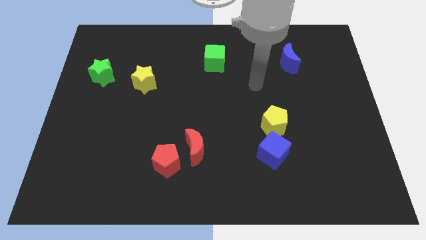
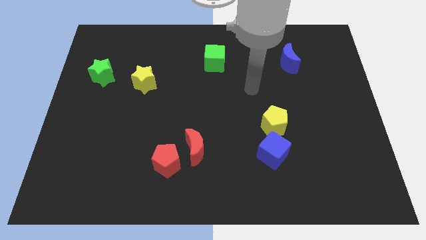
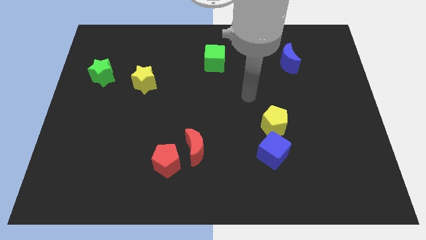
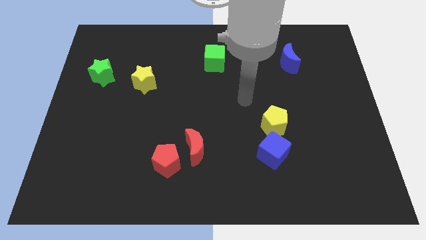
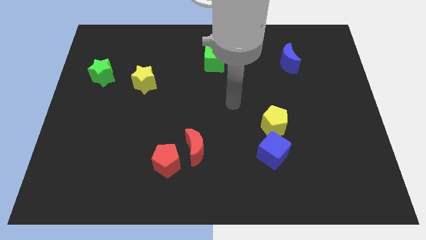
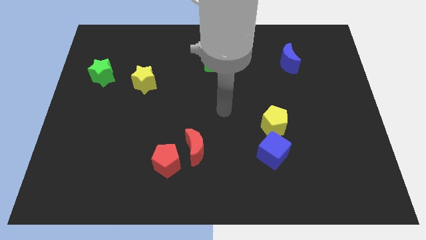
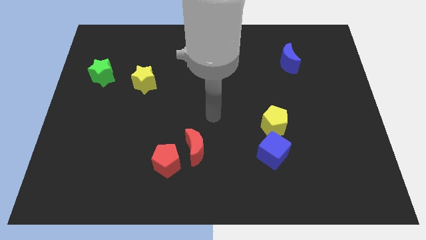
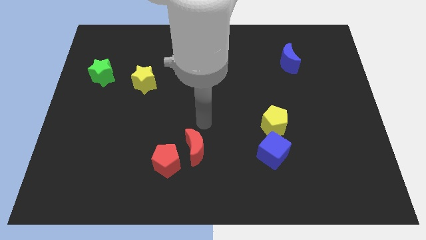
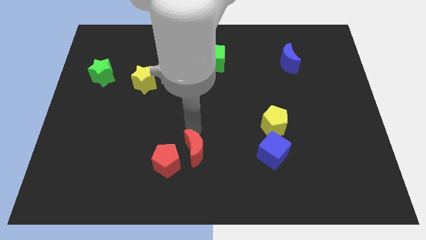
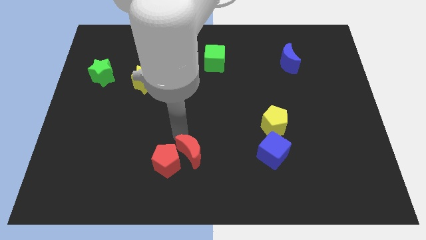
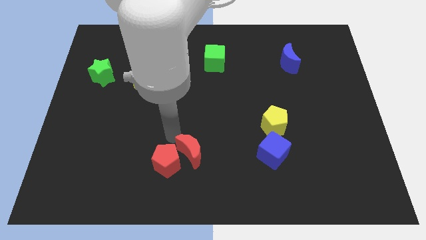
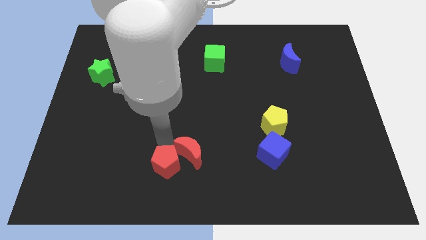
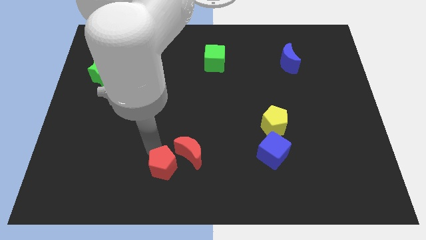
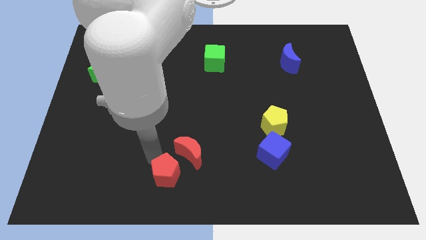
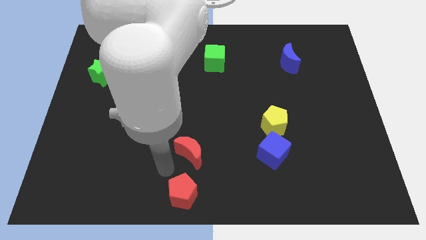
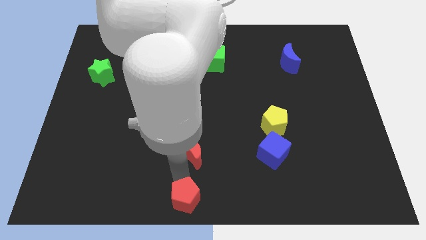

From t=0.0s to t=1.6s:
separate the red moon from the red pentagon

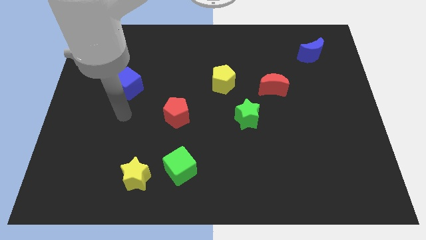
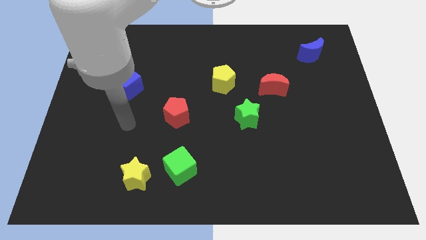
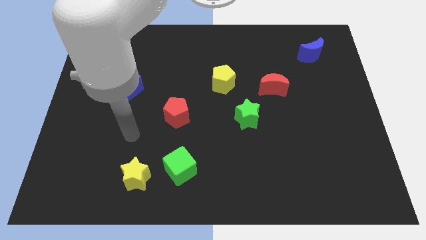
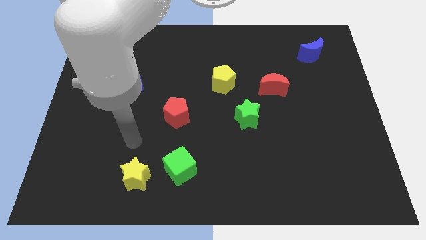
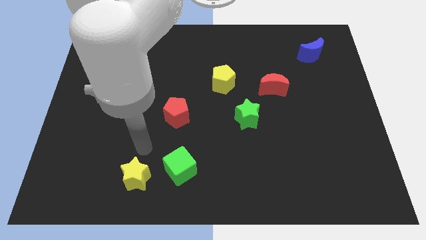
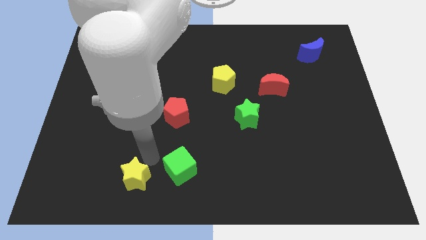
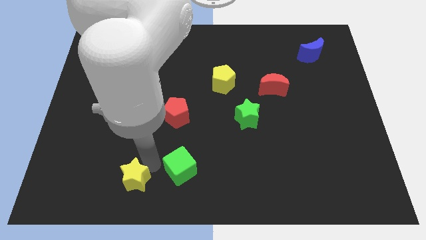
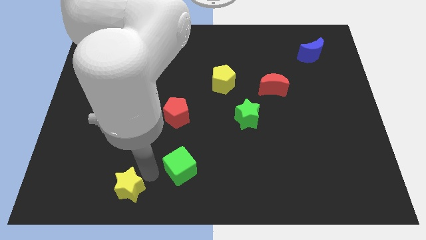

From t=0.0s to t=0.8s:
move the green cube away from the yellow star

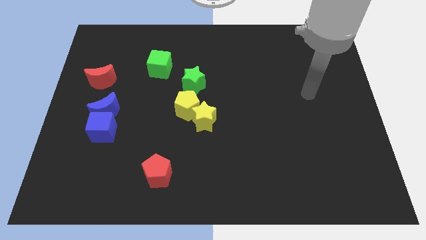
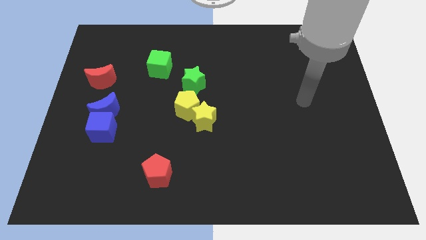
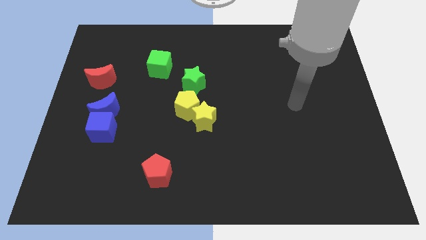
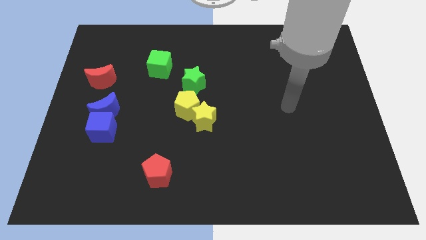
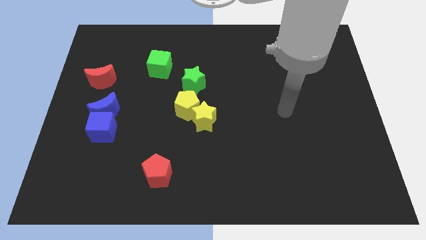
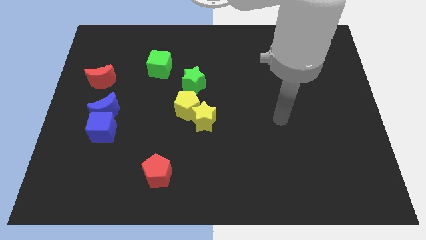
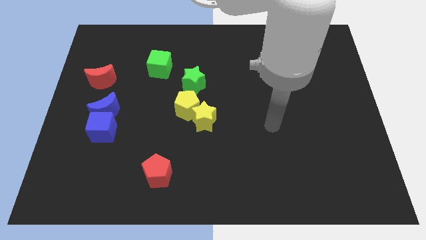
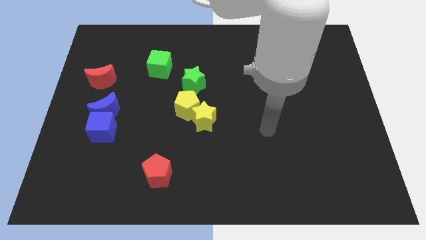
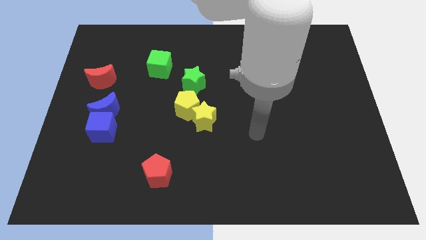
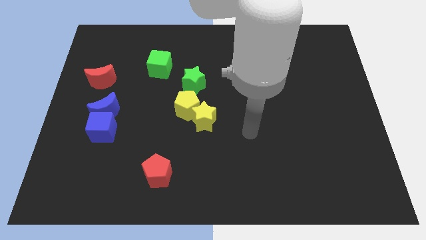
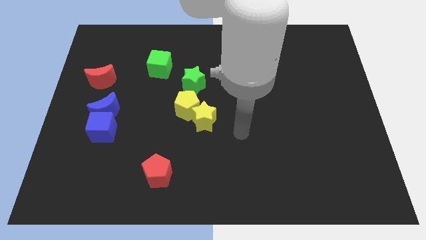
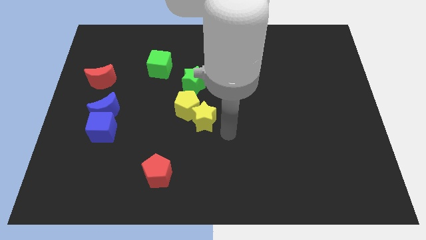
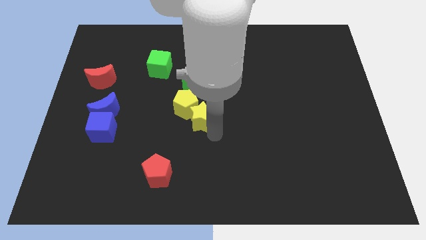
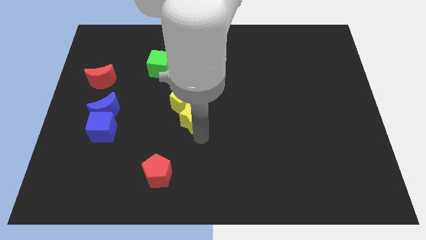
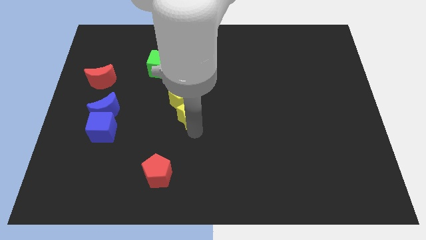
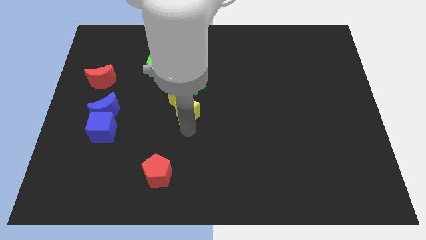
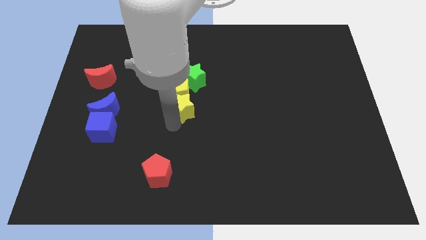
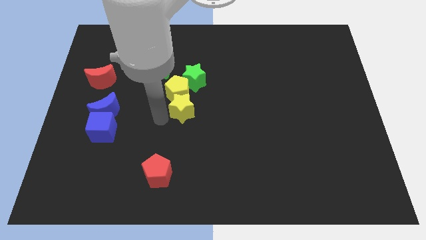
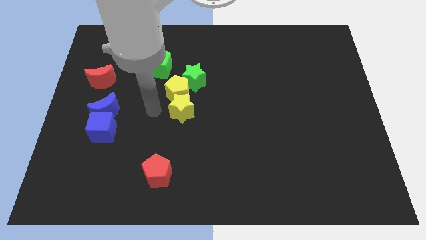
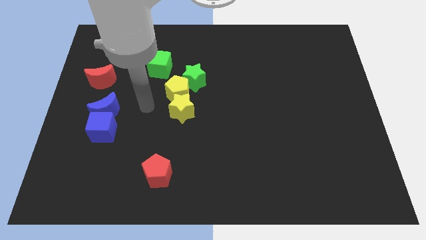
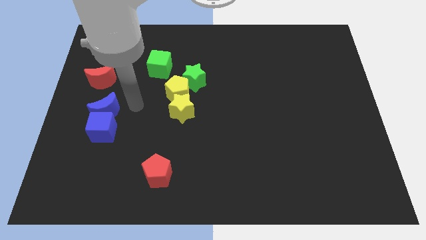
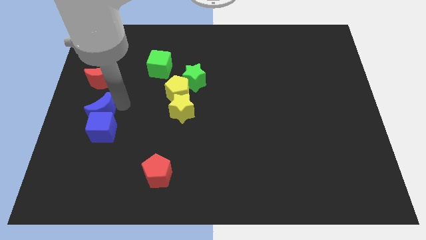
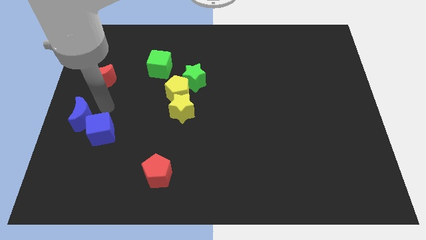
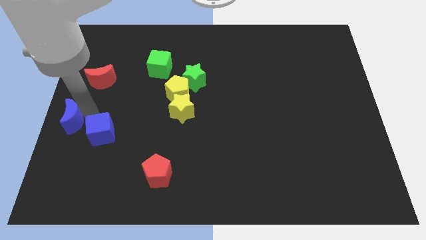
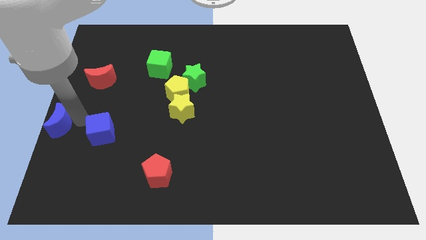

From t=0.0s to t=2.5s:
separate the blue cube from the blue moon

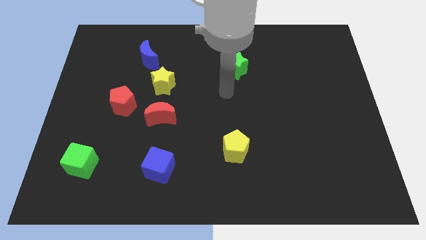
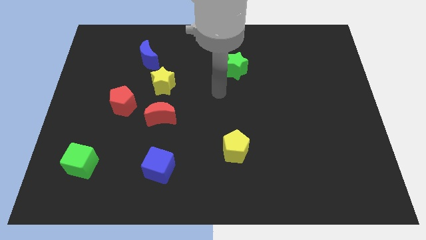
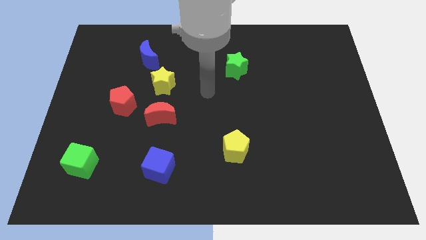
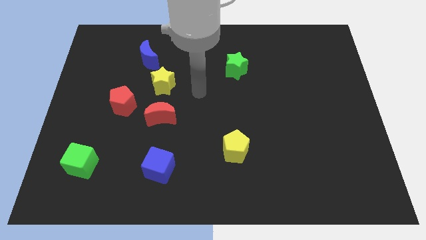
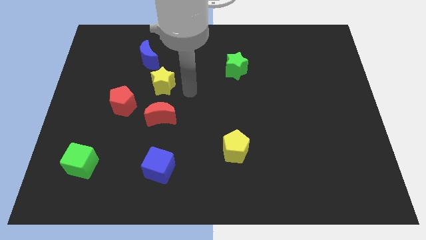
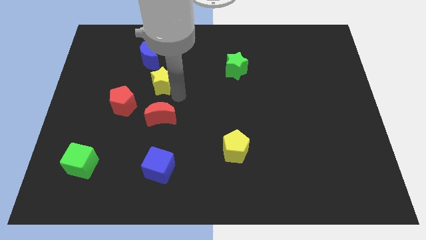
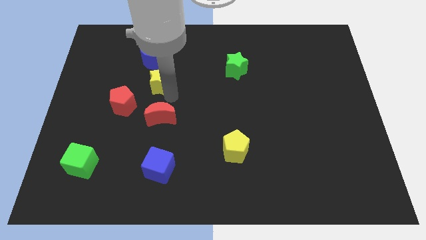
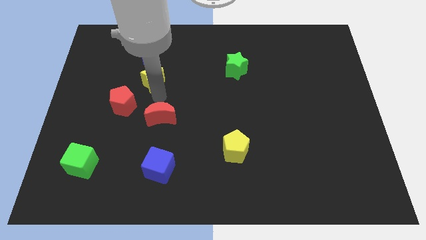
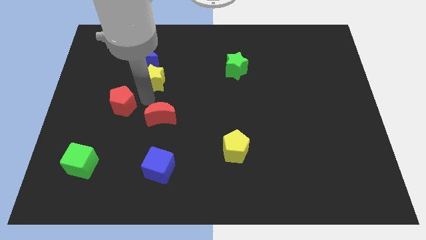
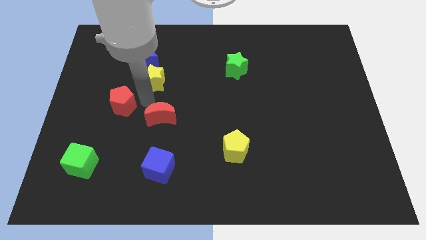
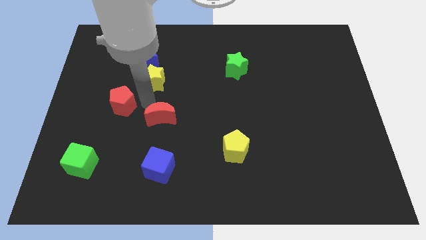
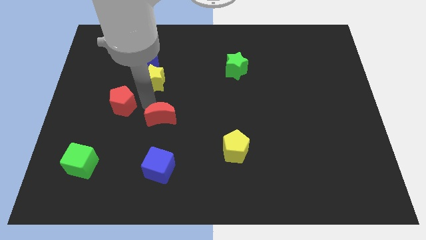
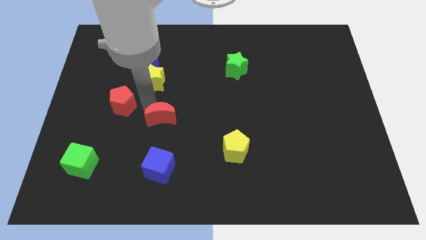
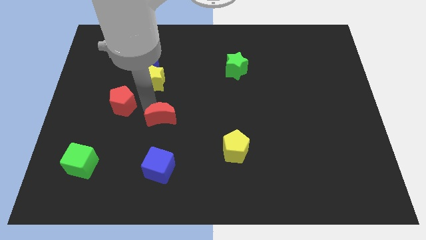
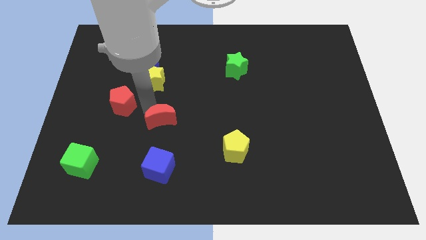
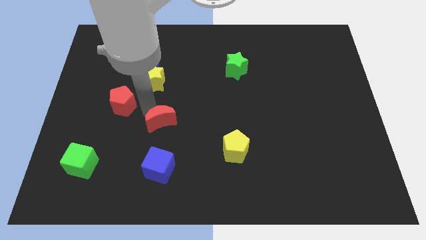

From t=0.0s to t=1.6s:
separate the red moon from the yellow star and red pentagon

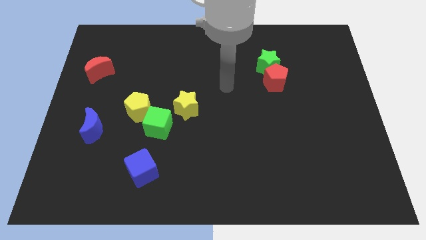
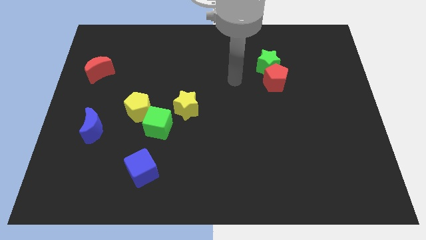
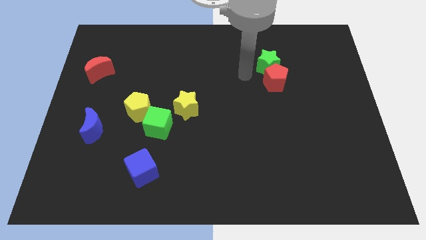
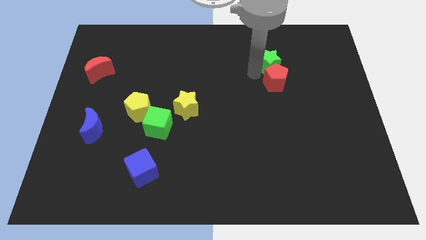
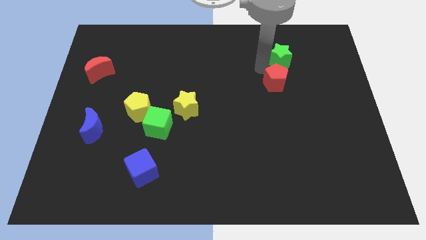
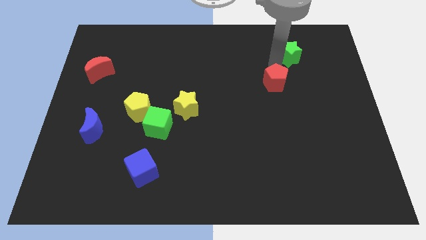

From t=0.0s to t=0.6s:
pull the red pentagon apart from the green star

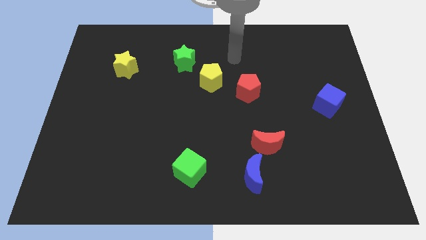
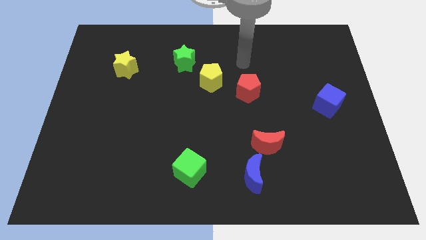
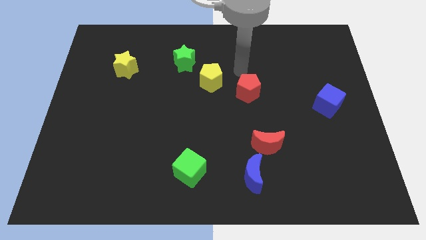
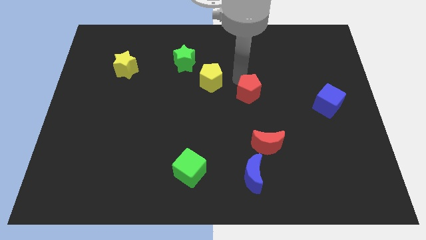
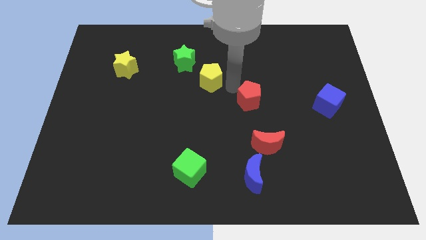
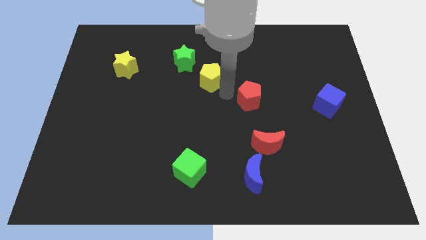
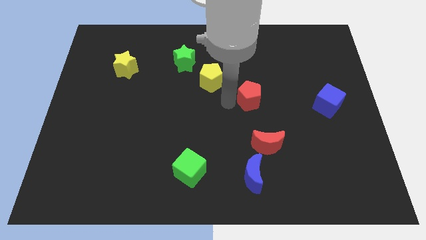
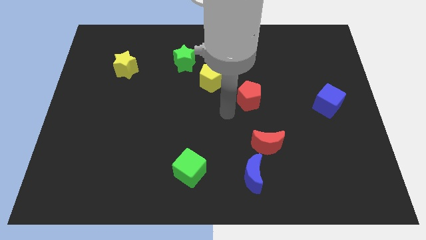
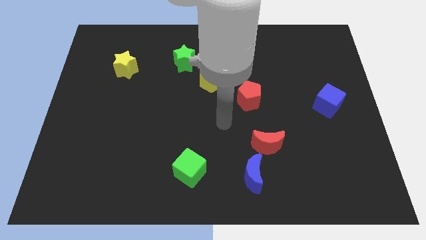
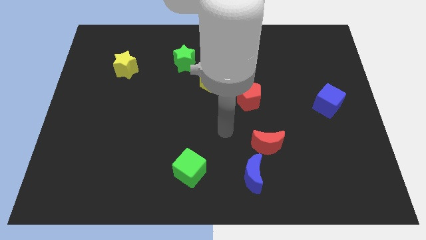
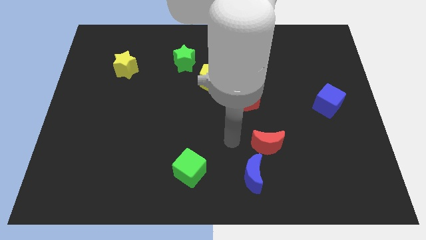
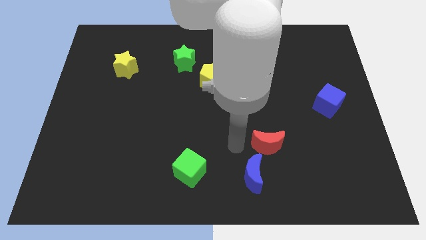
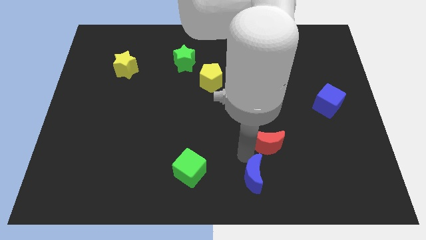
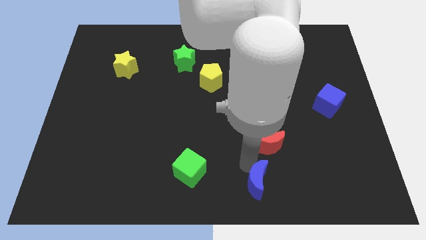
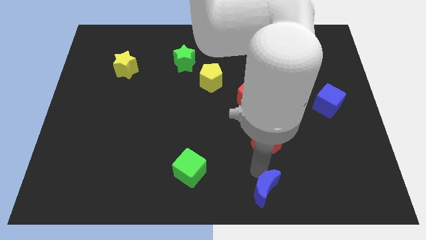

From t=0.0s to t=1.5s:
pull the red moon apart from the blue moon

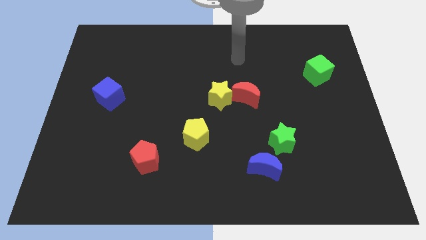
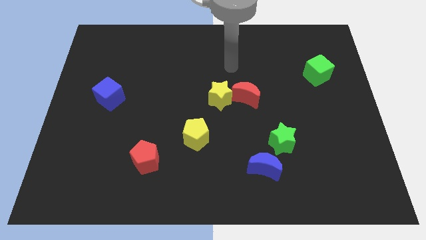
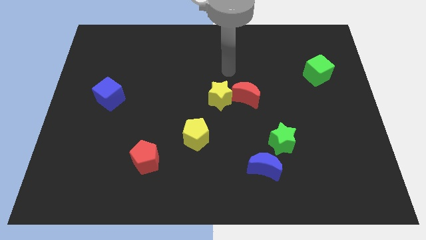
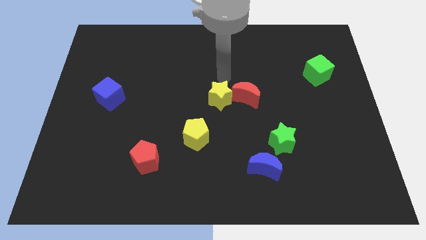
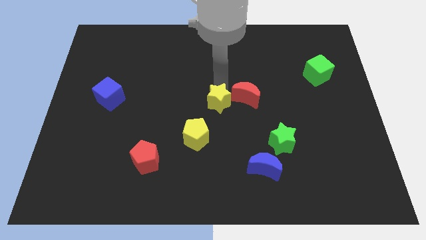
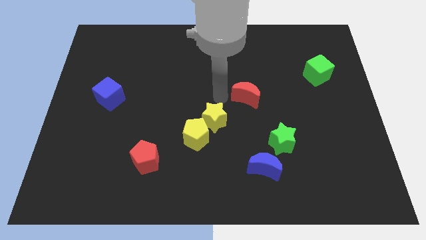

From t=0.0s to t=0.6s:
pull the red moon apart from the yellow star
